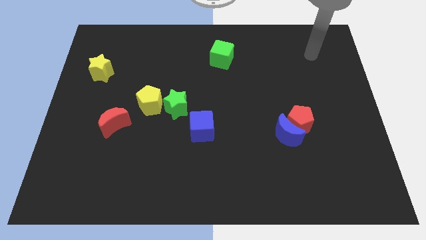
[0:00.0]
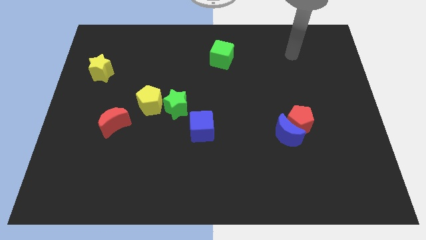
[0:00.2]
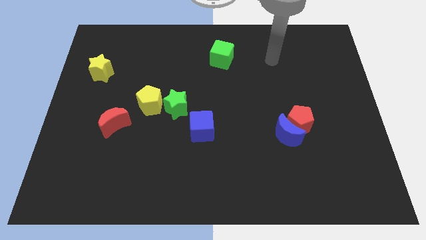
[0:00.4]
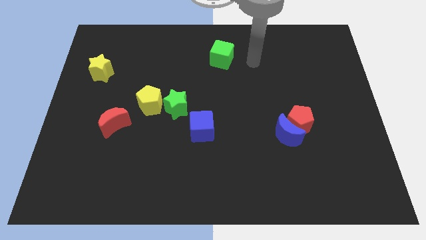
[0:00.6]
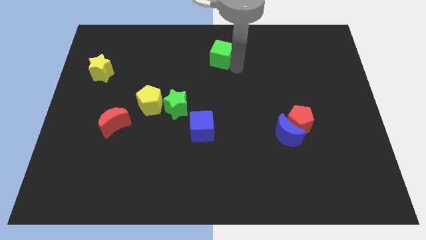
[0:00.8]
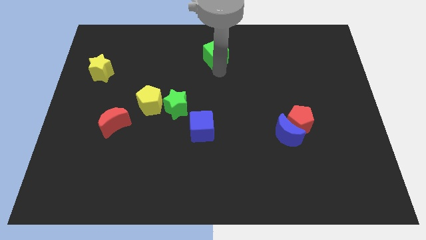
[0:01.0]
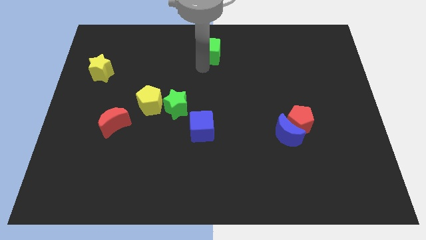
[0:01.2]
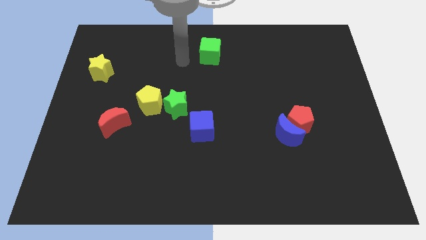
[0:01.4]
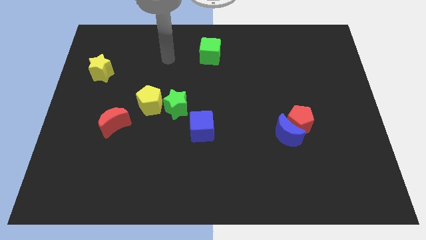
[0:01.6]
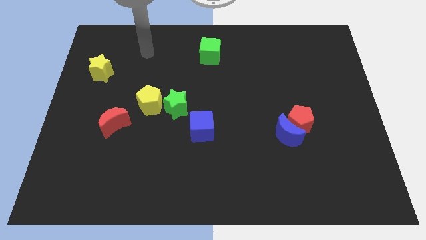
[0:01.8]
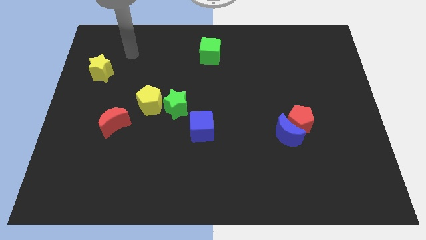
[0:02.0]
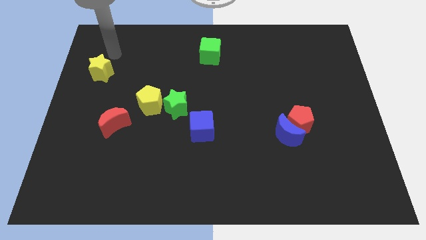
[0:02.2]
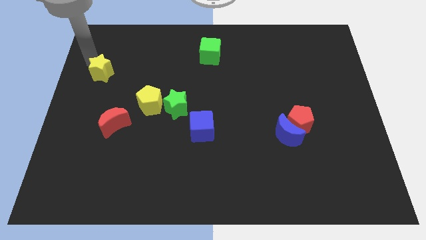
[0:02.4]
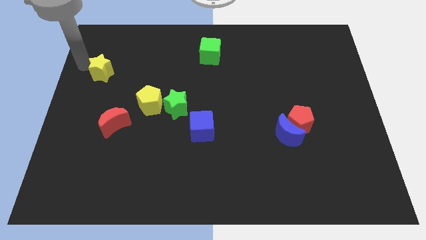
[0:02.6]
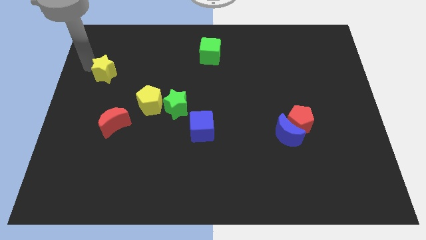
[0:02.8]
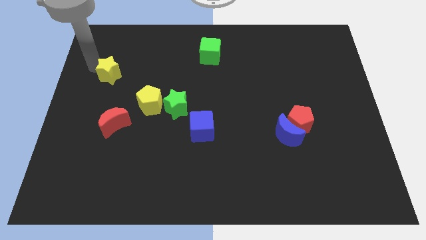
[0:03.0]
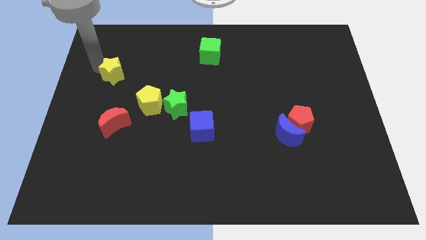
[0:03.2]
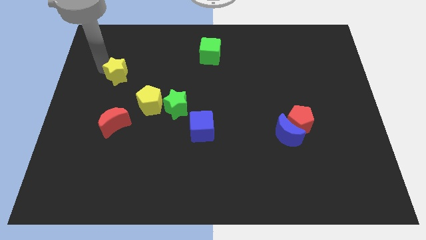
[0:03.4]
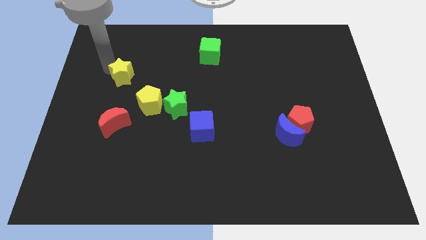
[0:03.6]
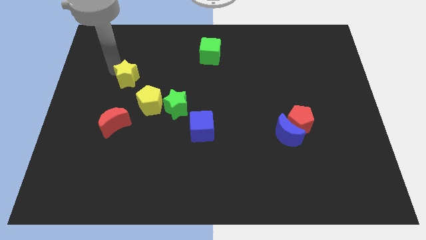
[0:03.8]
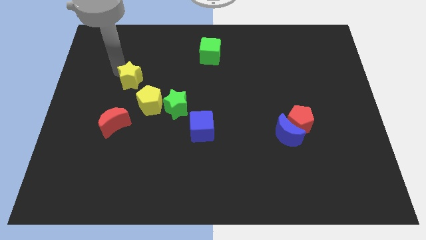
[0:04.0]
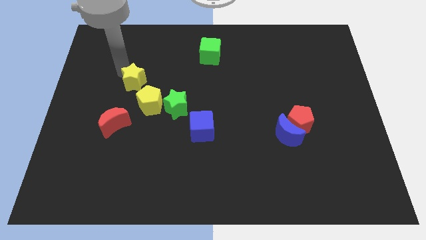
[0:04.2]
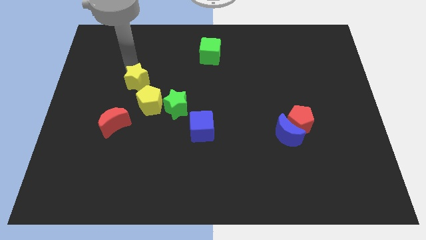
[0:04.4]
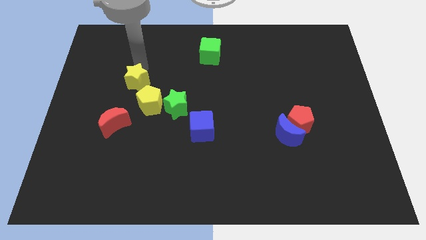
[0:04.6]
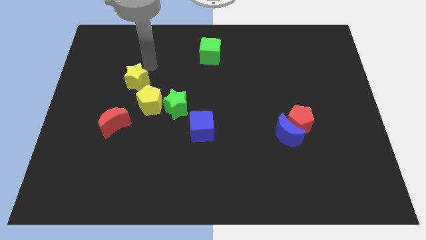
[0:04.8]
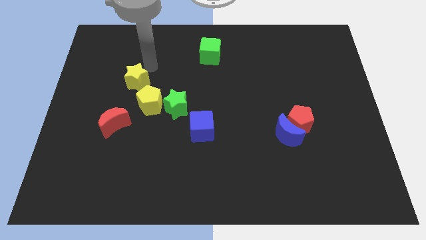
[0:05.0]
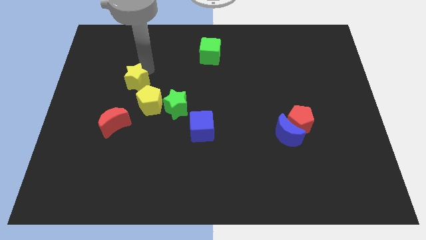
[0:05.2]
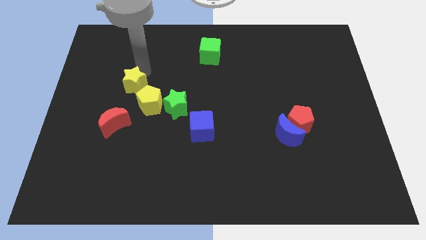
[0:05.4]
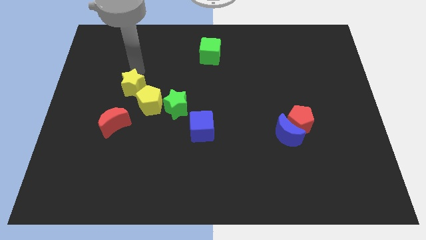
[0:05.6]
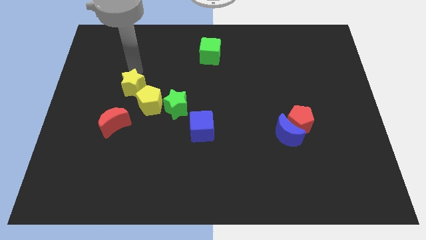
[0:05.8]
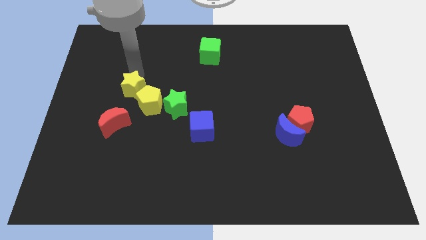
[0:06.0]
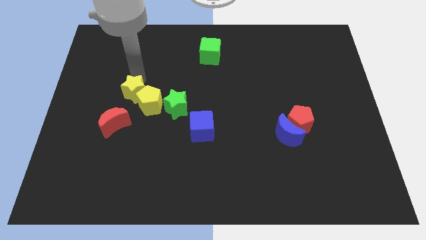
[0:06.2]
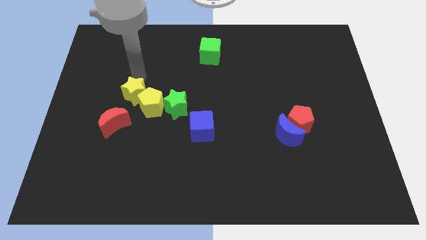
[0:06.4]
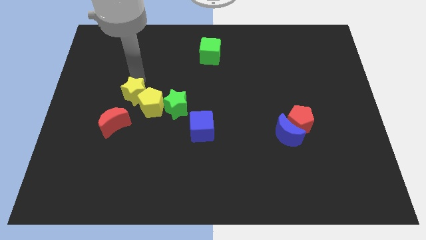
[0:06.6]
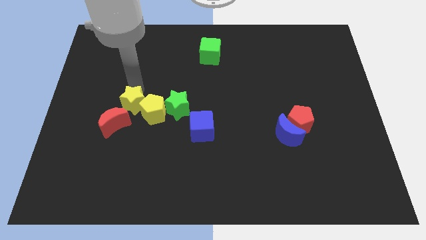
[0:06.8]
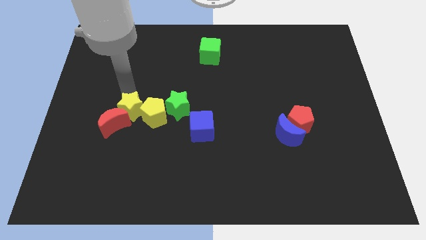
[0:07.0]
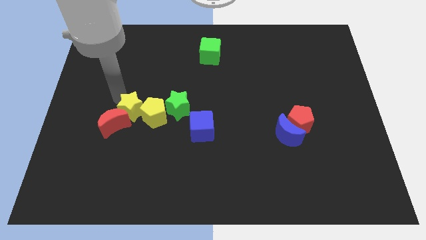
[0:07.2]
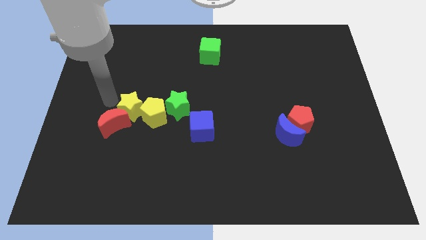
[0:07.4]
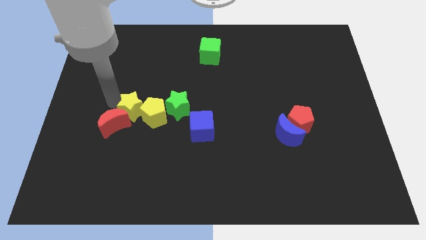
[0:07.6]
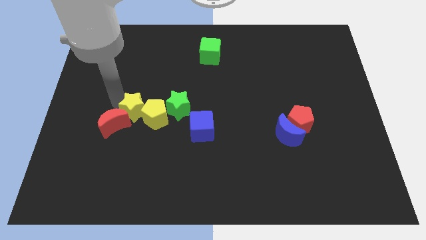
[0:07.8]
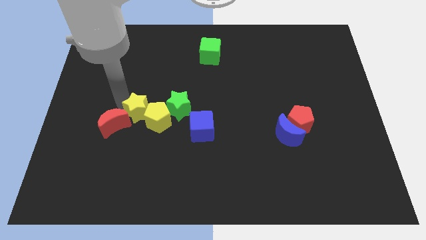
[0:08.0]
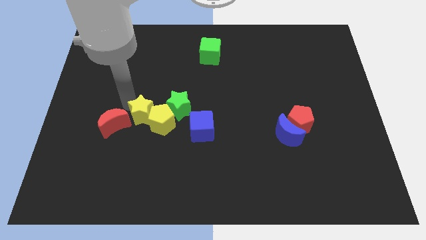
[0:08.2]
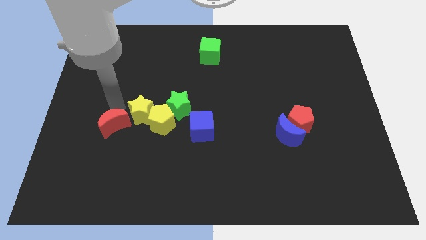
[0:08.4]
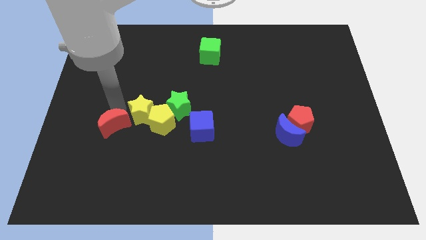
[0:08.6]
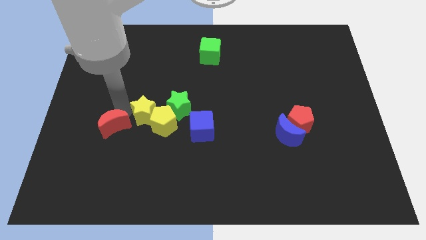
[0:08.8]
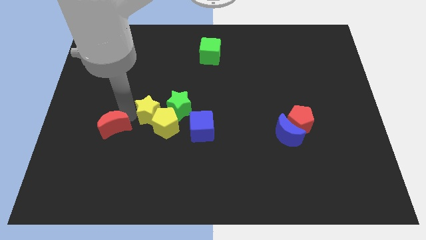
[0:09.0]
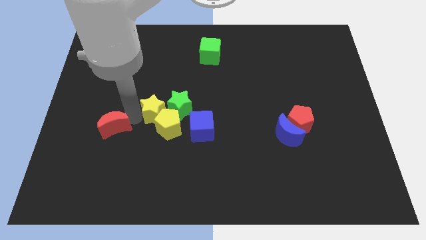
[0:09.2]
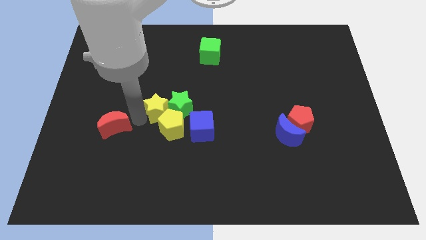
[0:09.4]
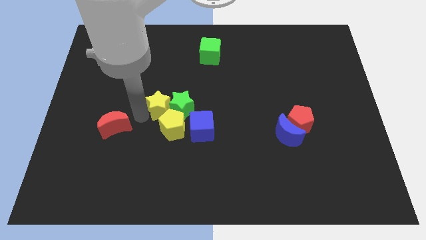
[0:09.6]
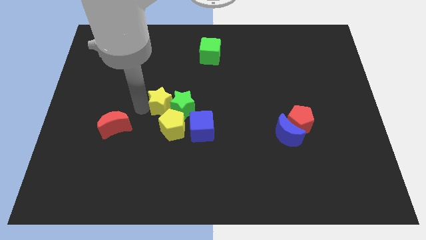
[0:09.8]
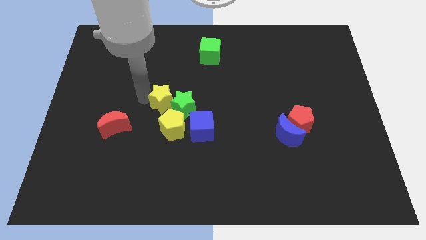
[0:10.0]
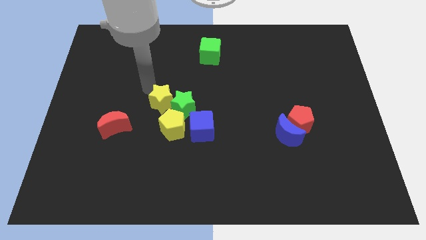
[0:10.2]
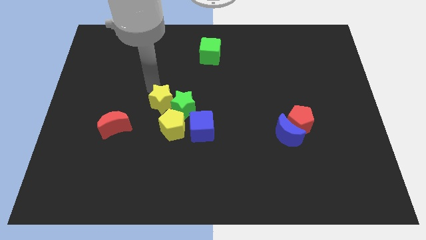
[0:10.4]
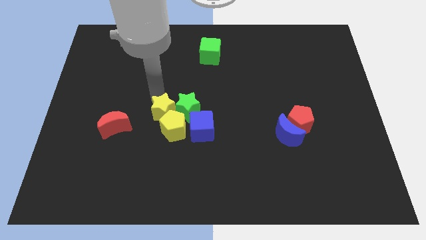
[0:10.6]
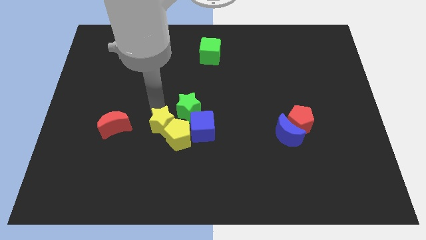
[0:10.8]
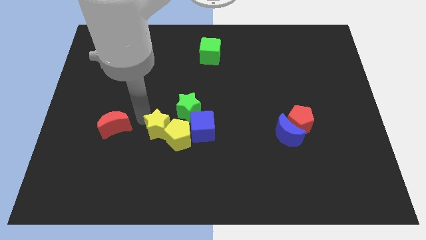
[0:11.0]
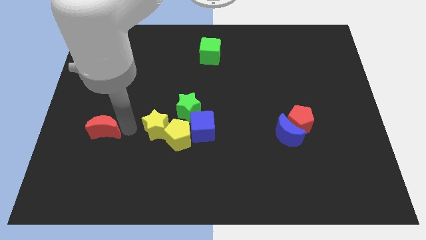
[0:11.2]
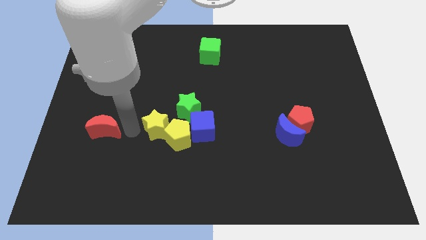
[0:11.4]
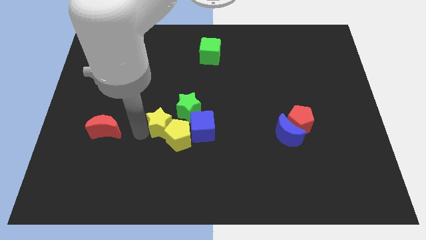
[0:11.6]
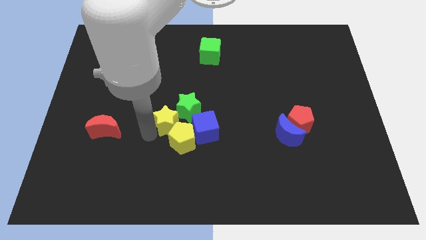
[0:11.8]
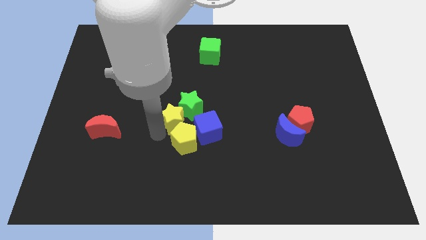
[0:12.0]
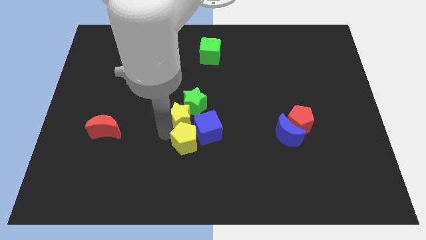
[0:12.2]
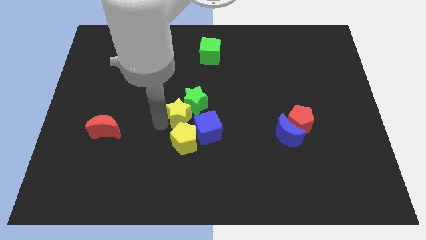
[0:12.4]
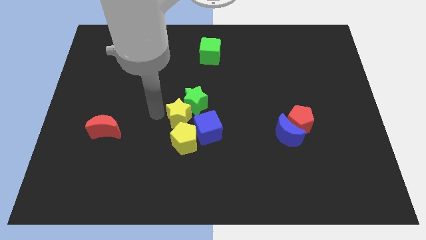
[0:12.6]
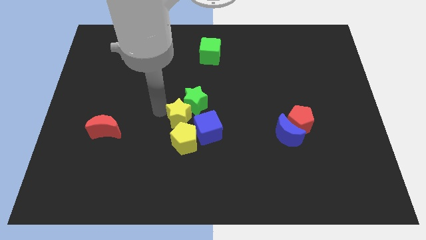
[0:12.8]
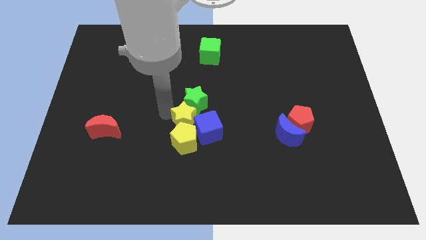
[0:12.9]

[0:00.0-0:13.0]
slide the yellow star next to the blue cube

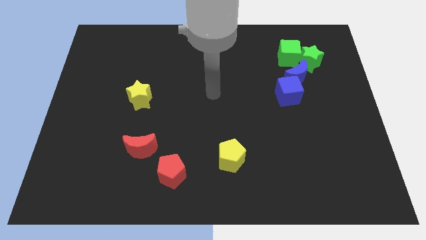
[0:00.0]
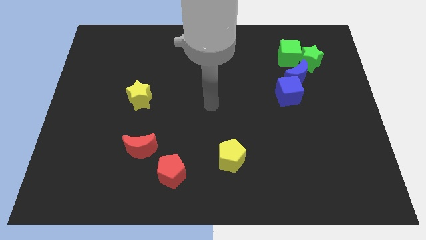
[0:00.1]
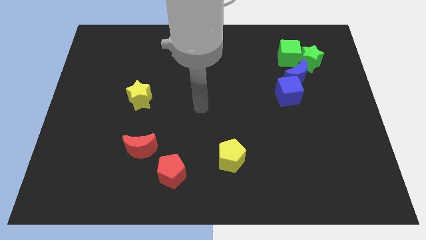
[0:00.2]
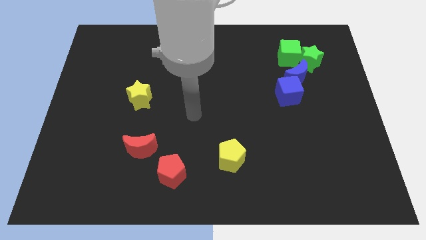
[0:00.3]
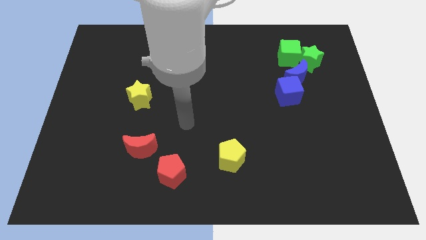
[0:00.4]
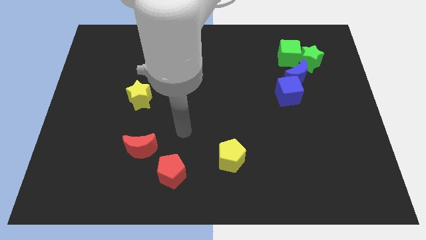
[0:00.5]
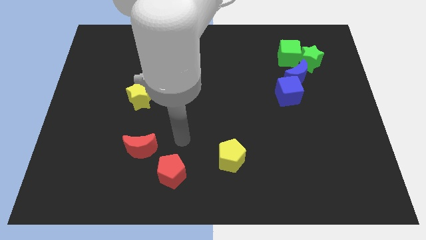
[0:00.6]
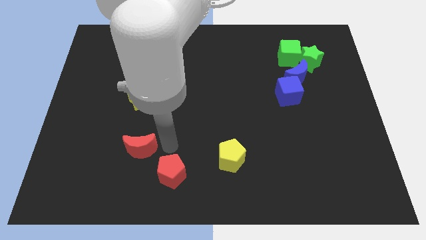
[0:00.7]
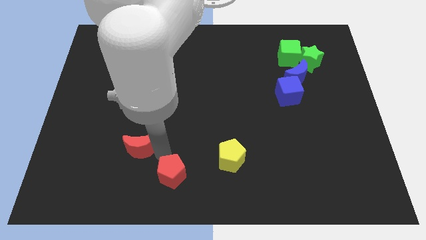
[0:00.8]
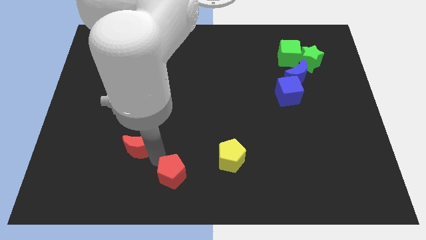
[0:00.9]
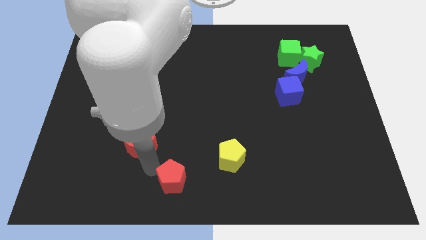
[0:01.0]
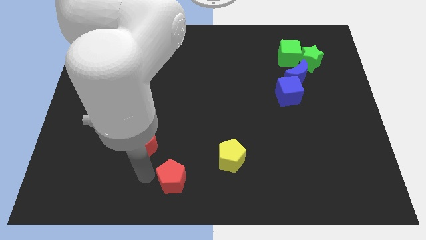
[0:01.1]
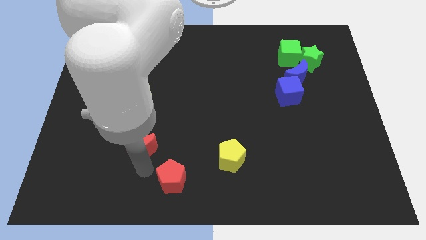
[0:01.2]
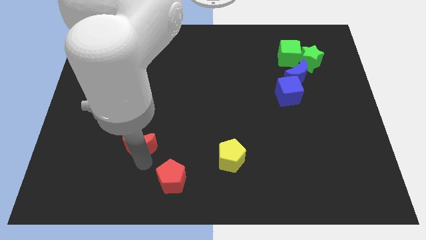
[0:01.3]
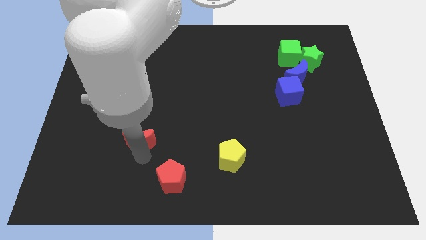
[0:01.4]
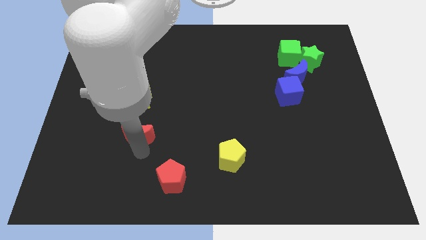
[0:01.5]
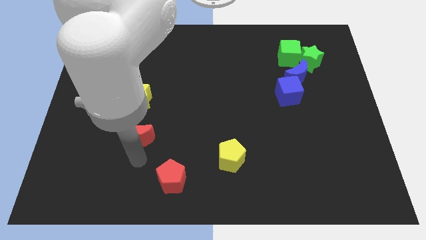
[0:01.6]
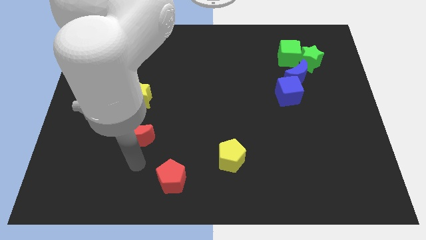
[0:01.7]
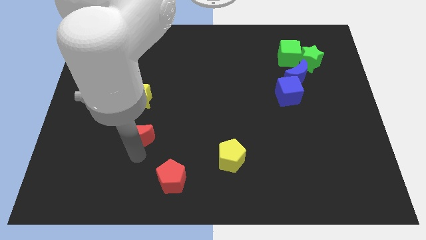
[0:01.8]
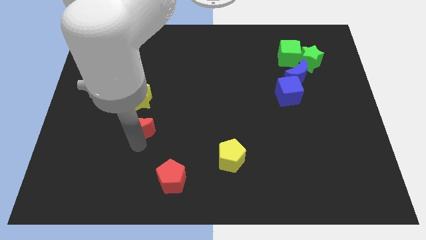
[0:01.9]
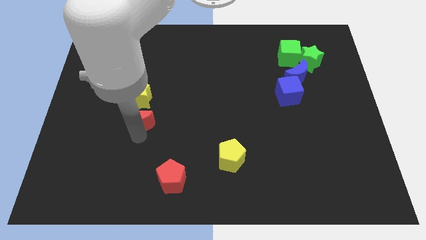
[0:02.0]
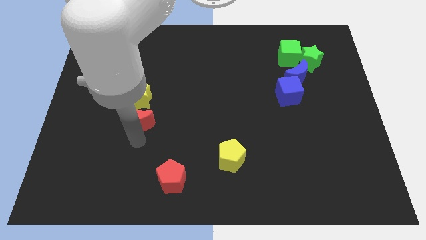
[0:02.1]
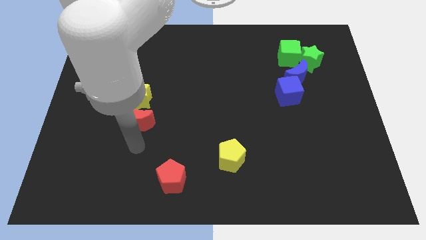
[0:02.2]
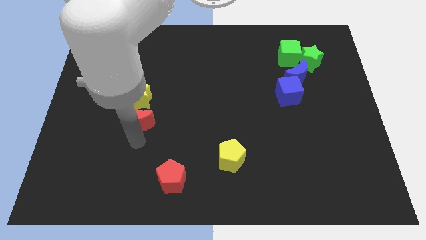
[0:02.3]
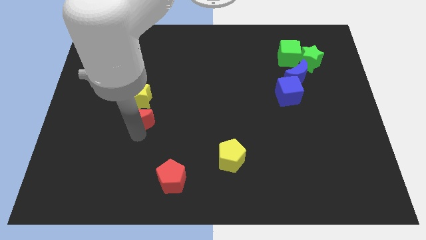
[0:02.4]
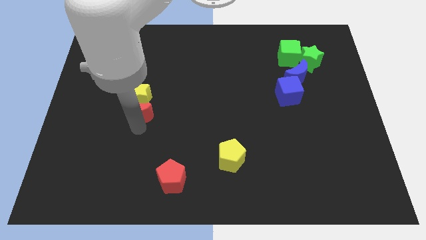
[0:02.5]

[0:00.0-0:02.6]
move the red moon next to the yellow star
